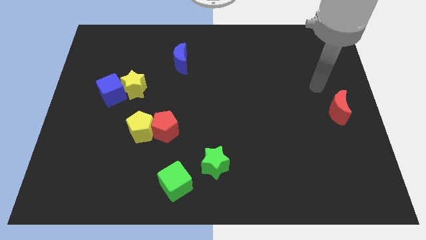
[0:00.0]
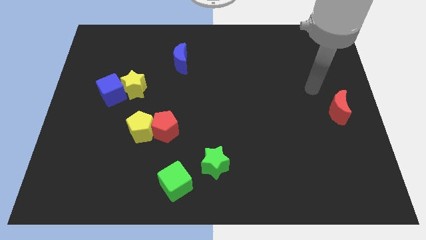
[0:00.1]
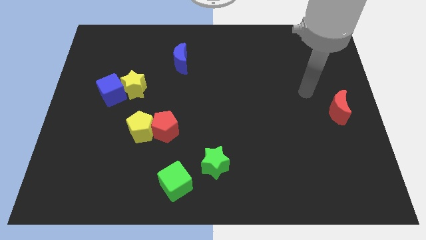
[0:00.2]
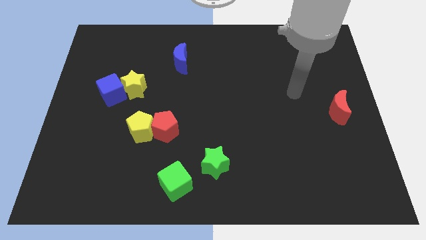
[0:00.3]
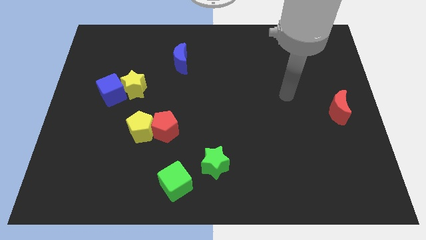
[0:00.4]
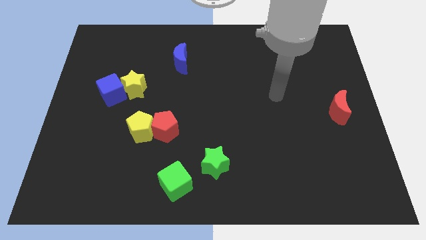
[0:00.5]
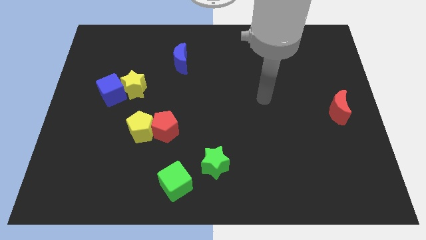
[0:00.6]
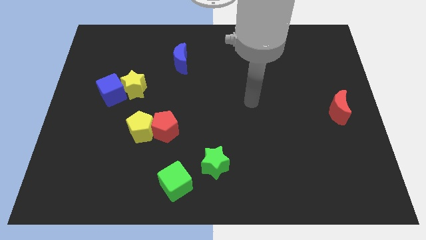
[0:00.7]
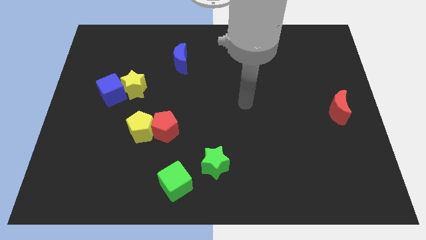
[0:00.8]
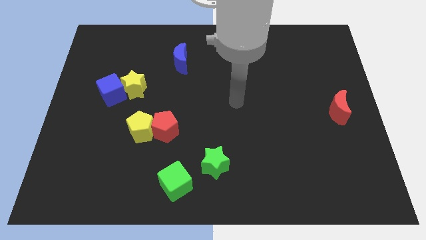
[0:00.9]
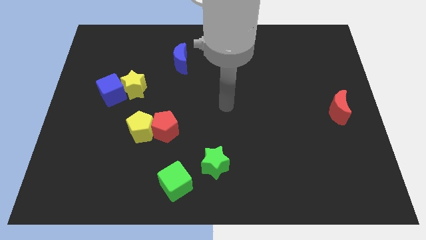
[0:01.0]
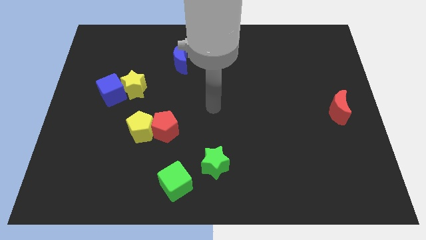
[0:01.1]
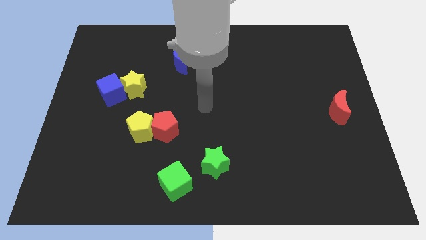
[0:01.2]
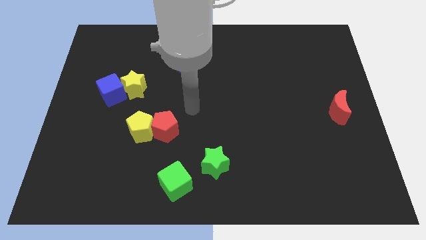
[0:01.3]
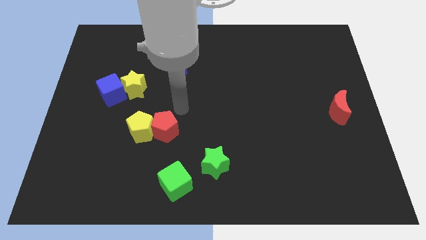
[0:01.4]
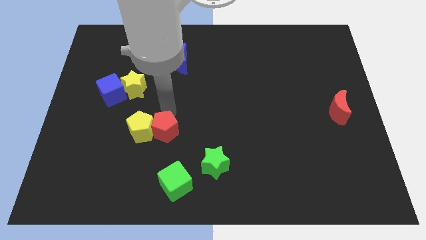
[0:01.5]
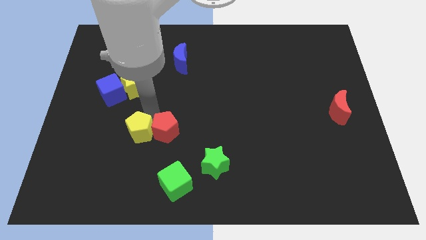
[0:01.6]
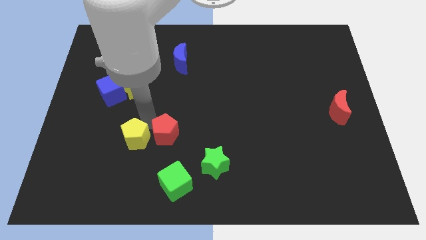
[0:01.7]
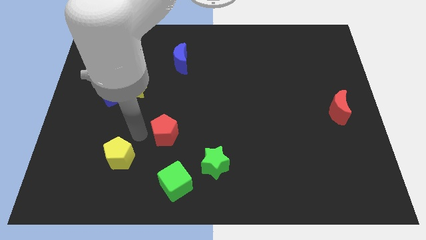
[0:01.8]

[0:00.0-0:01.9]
pull the red pentagon apart from the yellow pentagon

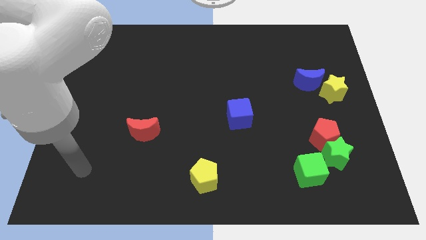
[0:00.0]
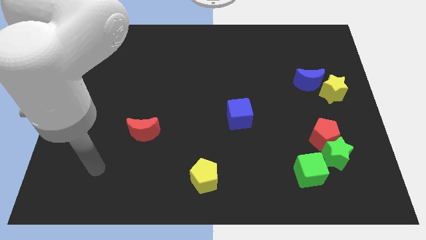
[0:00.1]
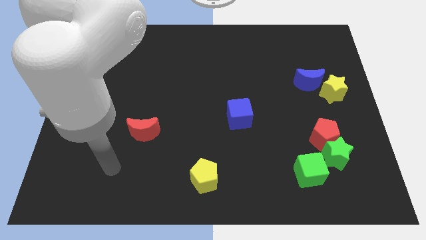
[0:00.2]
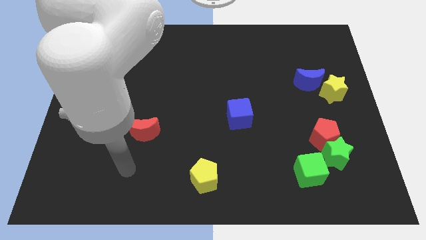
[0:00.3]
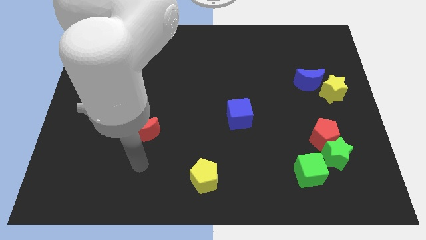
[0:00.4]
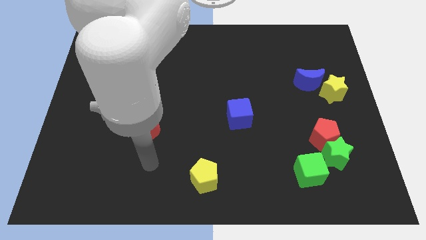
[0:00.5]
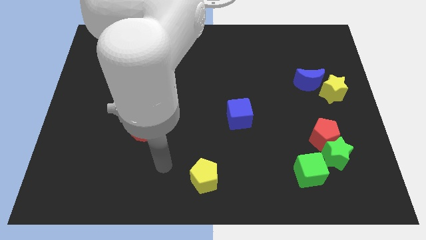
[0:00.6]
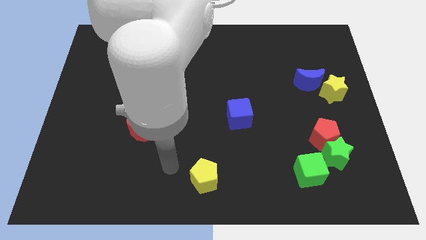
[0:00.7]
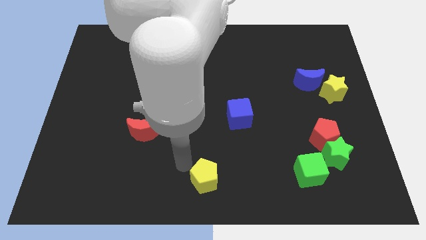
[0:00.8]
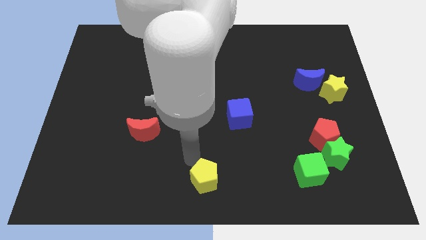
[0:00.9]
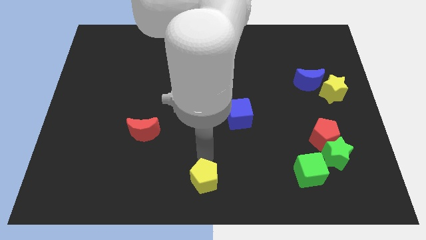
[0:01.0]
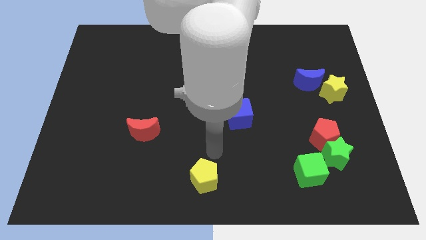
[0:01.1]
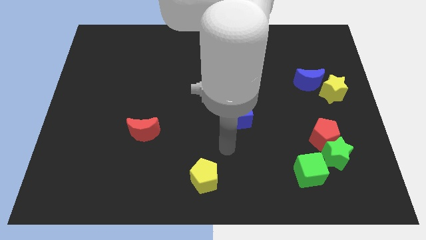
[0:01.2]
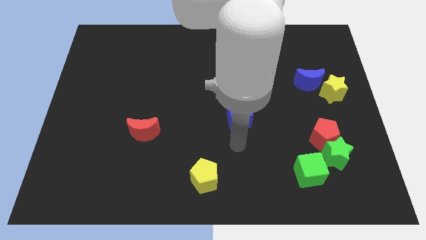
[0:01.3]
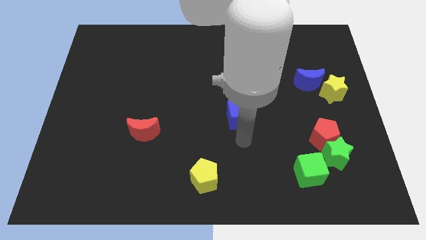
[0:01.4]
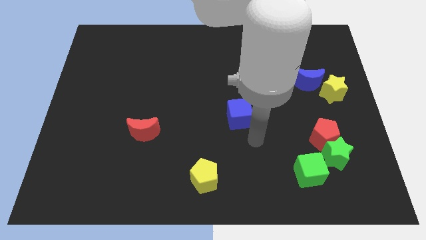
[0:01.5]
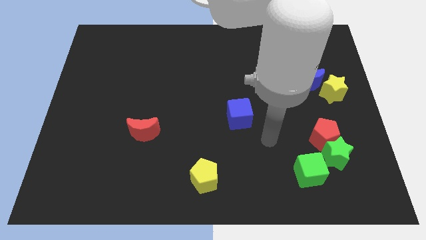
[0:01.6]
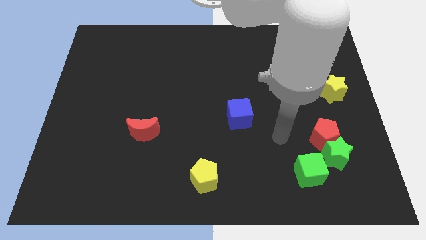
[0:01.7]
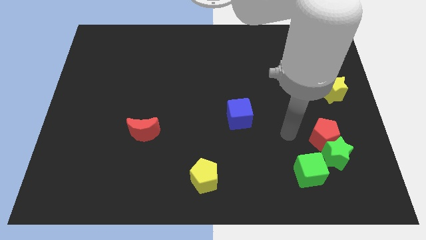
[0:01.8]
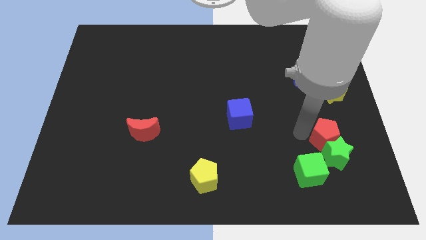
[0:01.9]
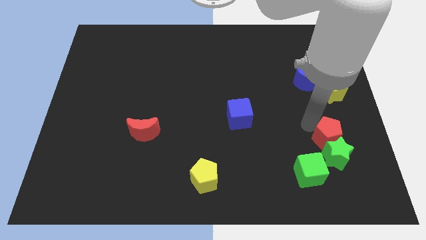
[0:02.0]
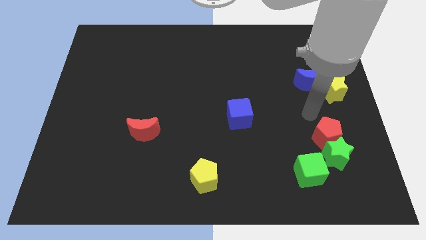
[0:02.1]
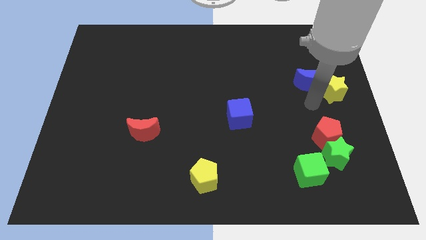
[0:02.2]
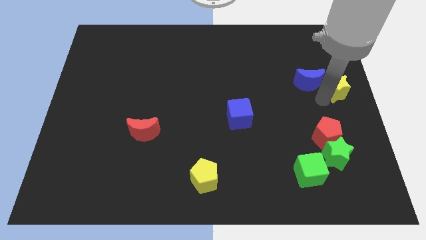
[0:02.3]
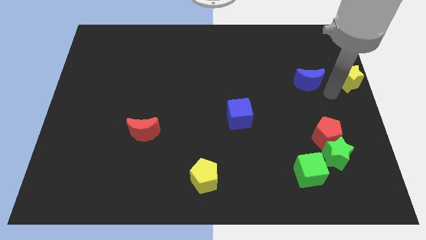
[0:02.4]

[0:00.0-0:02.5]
separate the blue moon from the yellow star

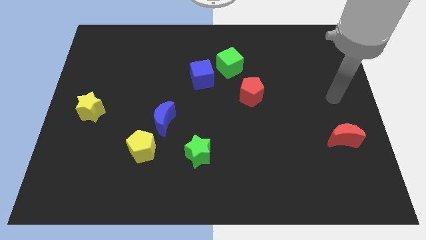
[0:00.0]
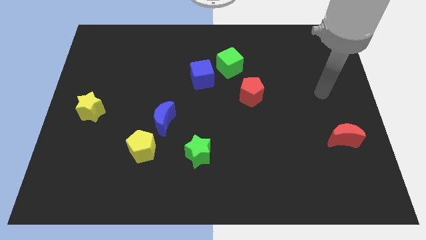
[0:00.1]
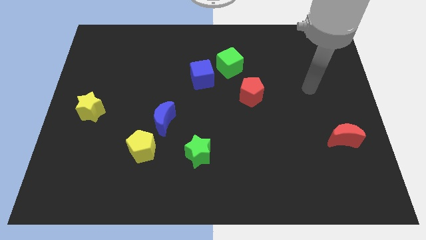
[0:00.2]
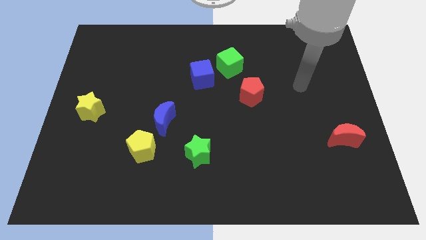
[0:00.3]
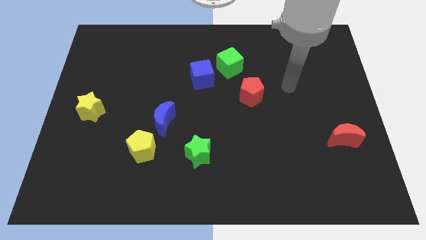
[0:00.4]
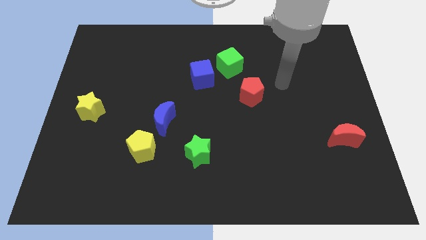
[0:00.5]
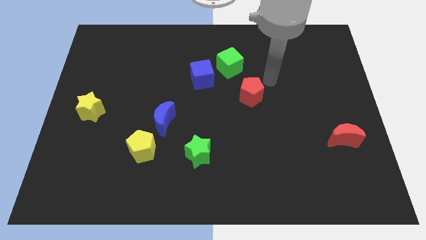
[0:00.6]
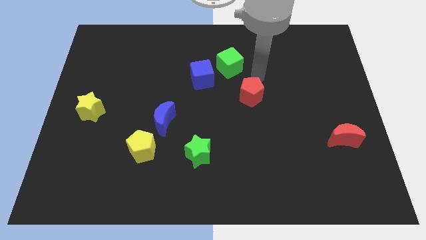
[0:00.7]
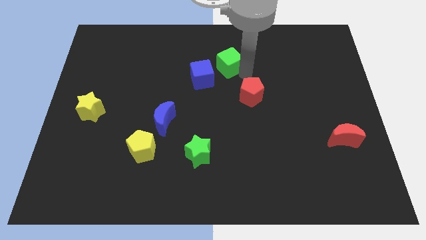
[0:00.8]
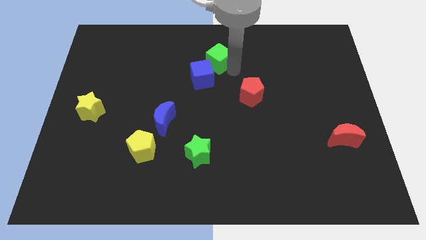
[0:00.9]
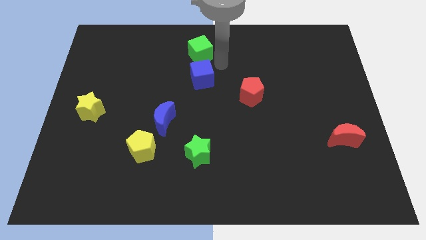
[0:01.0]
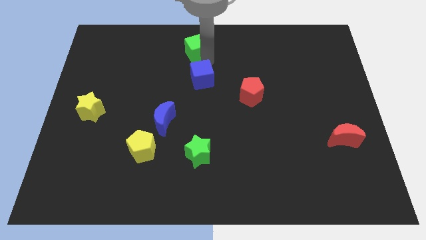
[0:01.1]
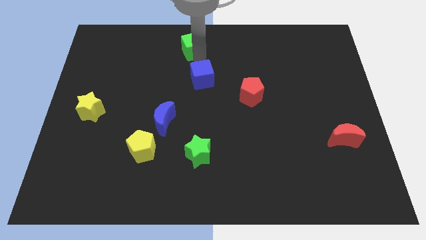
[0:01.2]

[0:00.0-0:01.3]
separate the blue cube from the green cube

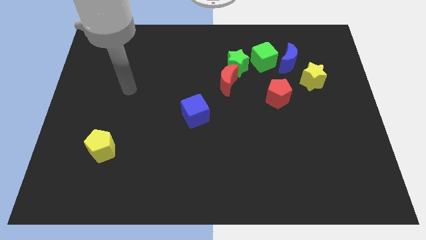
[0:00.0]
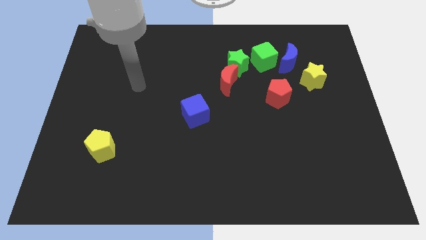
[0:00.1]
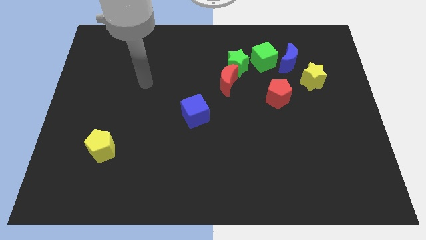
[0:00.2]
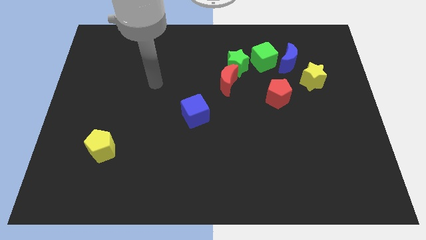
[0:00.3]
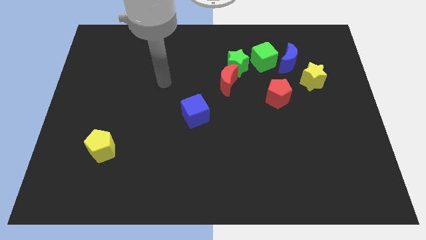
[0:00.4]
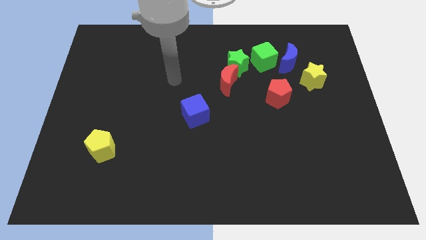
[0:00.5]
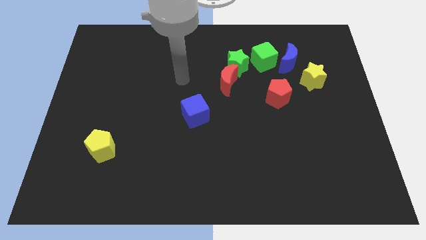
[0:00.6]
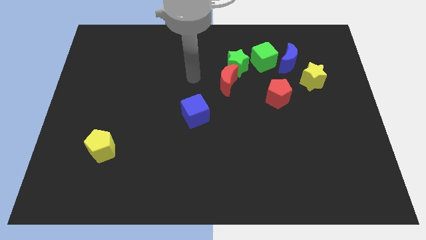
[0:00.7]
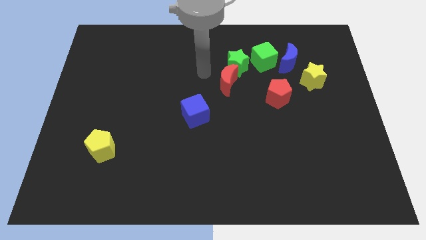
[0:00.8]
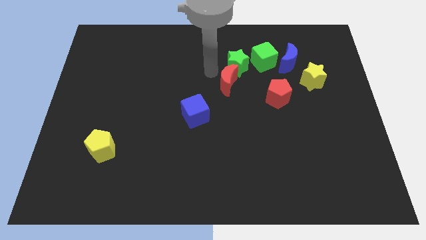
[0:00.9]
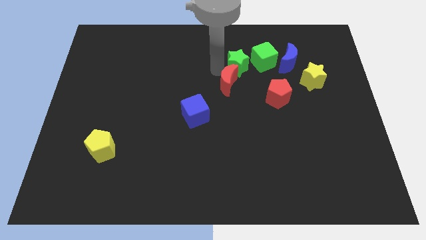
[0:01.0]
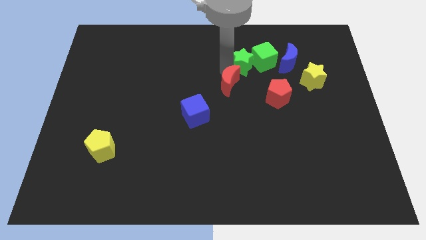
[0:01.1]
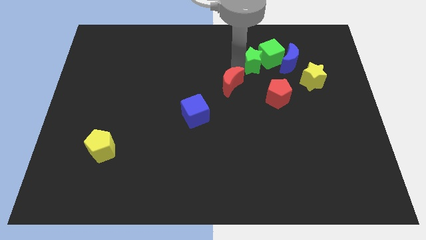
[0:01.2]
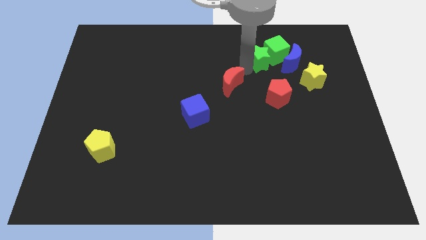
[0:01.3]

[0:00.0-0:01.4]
pull the red moon apart from the green star

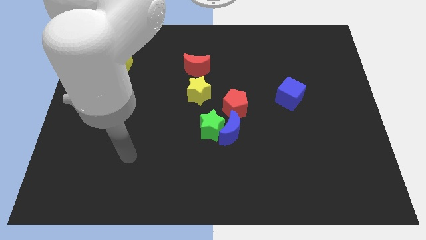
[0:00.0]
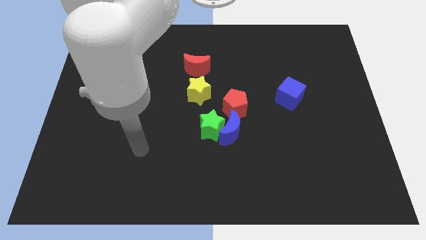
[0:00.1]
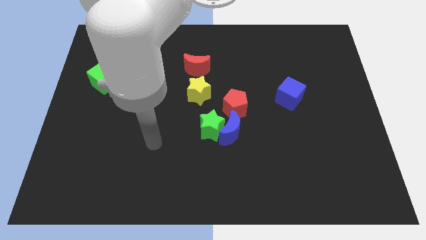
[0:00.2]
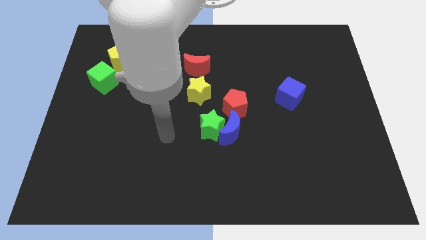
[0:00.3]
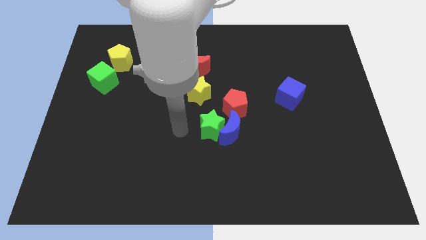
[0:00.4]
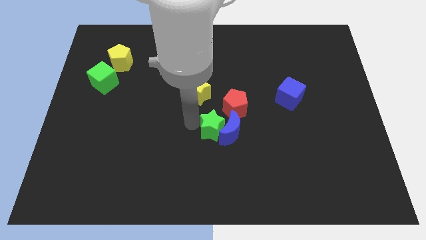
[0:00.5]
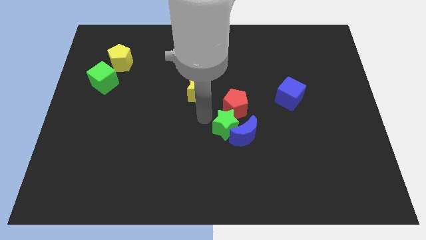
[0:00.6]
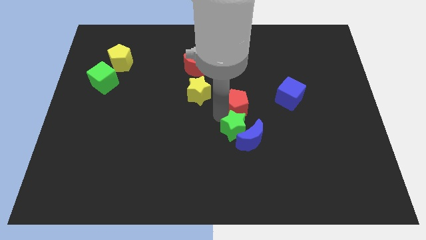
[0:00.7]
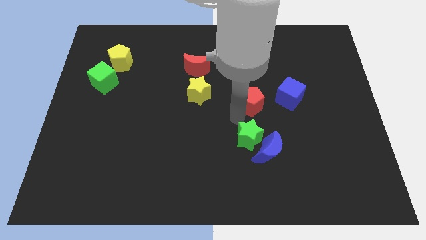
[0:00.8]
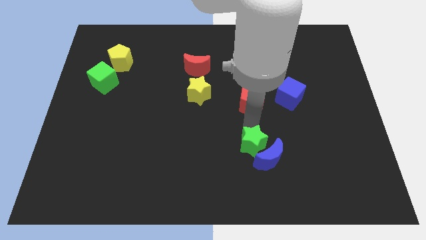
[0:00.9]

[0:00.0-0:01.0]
move the blue moon away from the green star and red pentagon

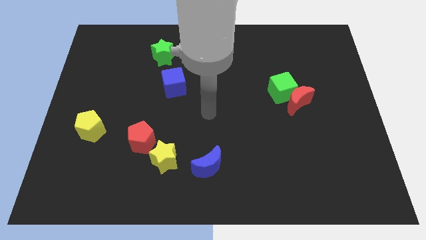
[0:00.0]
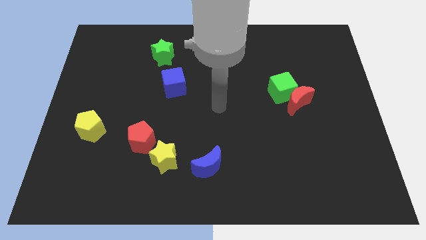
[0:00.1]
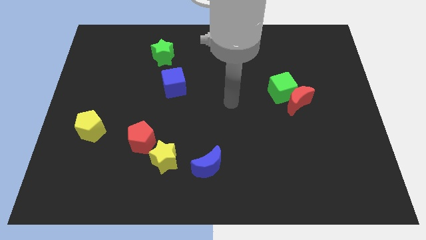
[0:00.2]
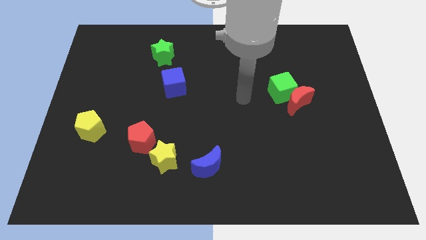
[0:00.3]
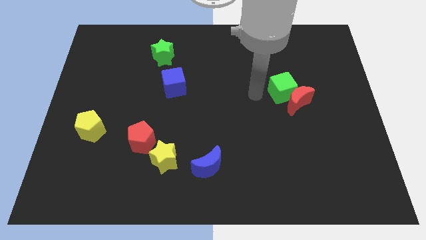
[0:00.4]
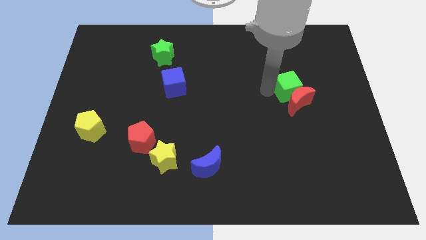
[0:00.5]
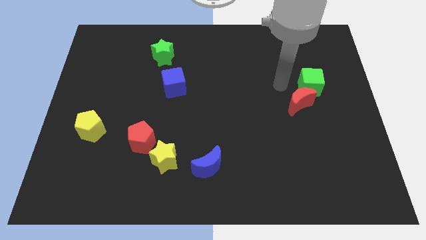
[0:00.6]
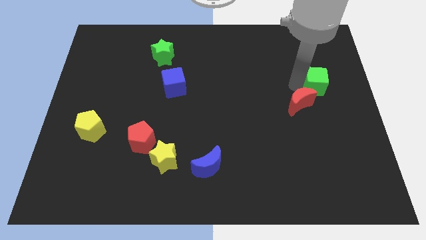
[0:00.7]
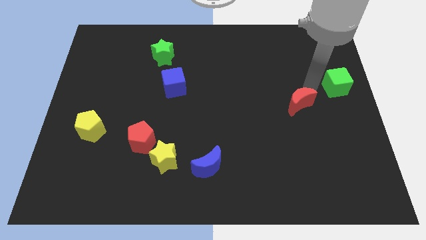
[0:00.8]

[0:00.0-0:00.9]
separate the red moon from the green cube

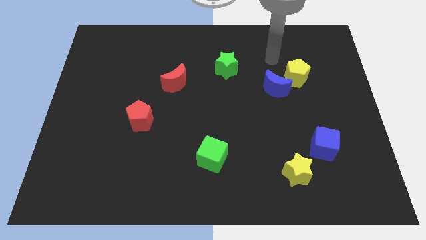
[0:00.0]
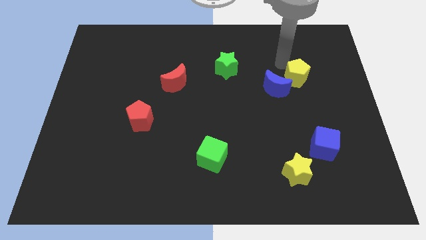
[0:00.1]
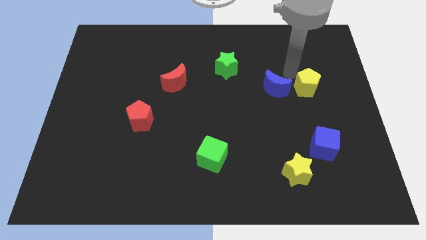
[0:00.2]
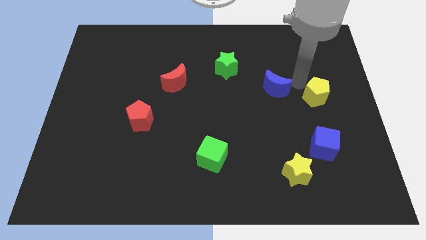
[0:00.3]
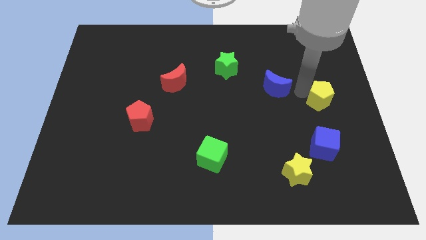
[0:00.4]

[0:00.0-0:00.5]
separate the blue moon from the yellow pentagon

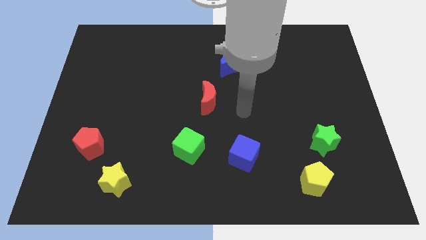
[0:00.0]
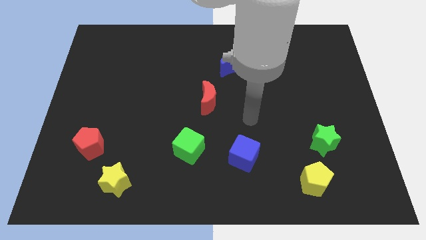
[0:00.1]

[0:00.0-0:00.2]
pull the green star apart from the yellow pentagon
